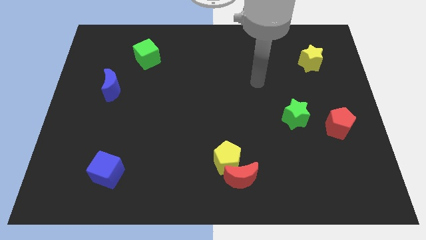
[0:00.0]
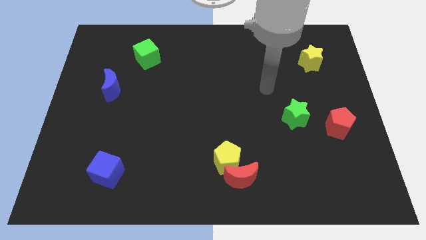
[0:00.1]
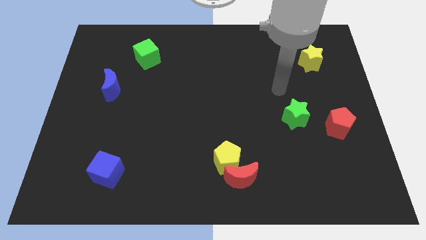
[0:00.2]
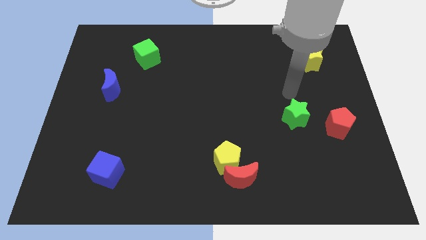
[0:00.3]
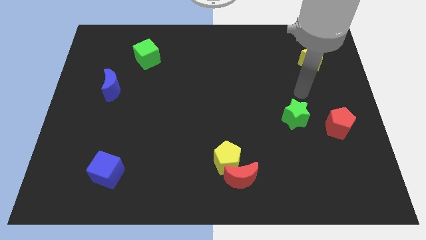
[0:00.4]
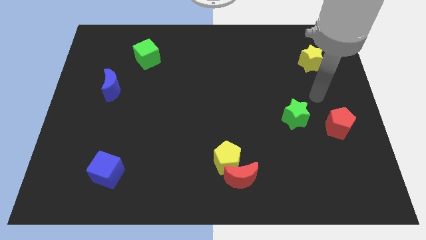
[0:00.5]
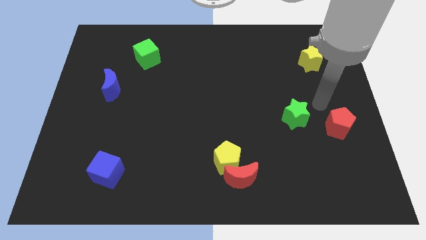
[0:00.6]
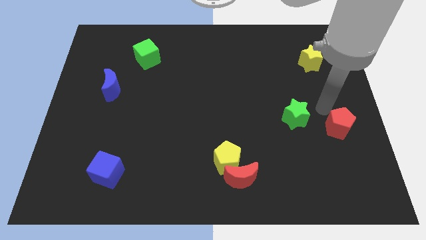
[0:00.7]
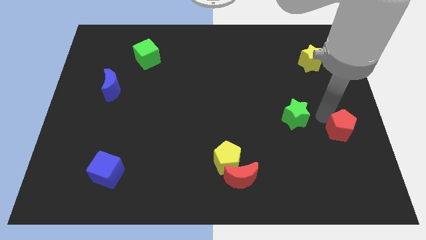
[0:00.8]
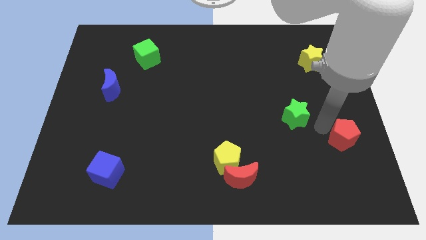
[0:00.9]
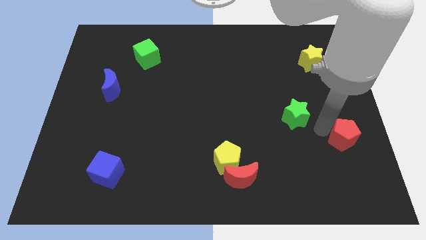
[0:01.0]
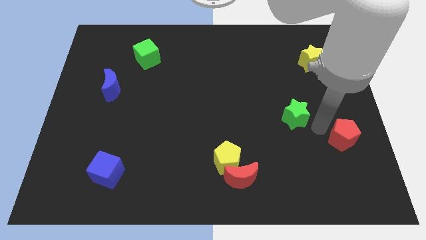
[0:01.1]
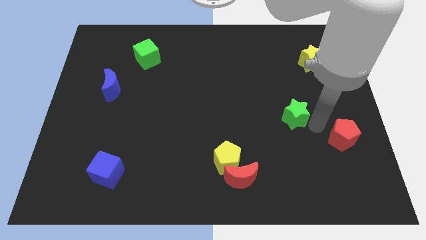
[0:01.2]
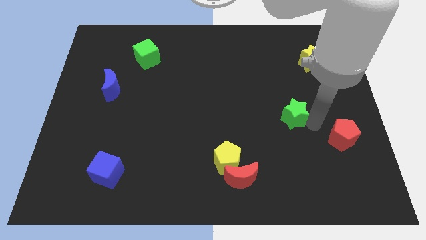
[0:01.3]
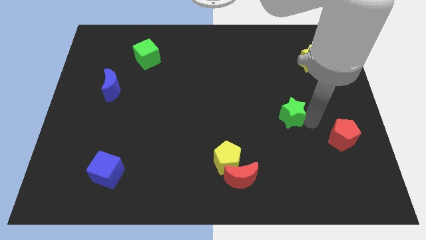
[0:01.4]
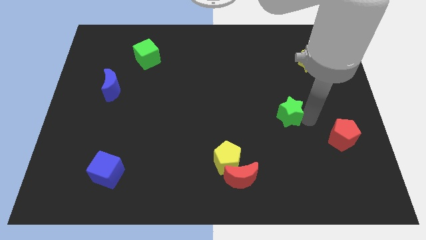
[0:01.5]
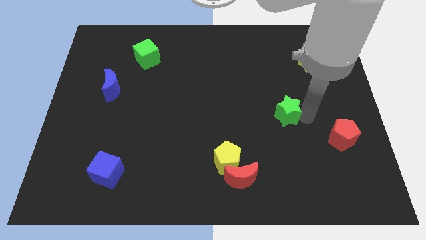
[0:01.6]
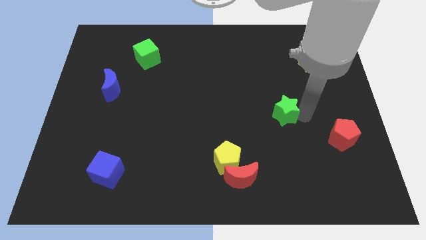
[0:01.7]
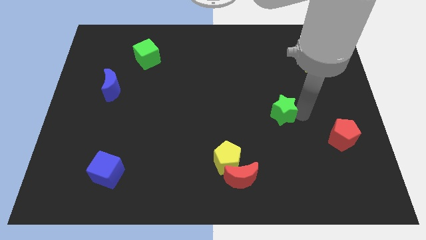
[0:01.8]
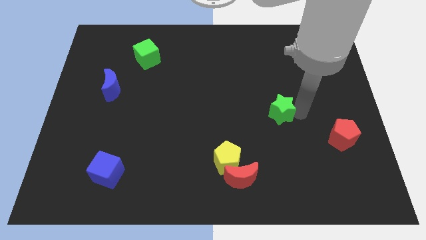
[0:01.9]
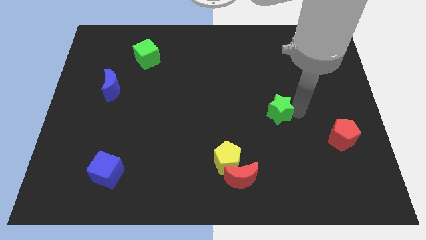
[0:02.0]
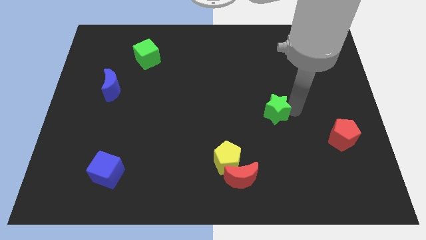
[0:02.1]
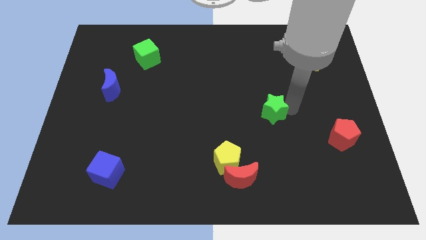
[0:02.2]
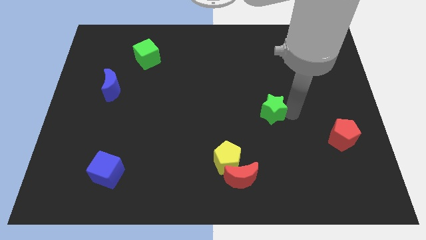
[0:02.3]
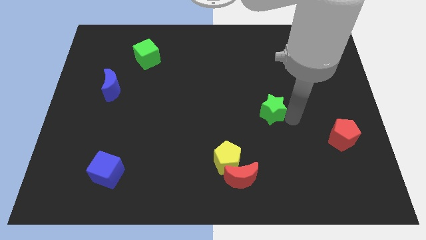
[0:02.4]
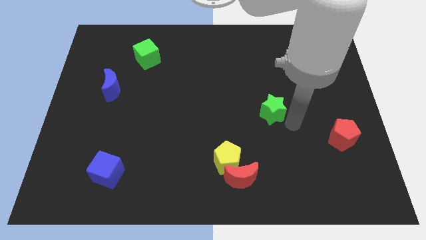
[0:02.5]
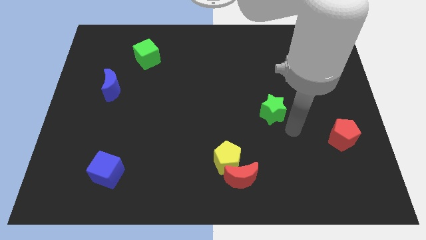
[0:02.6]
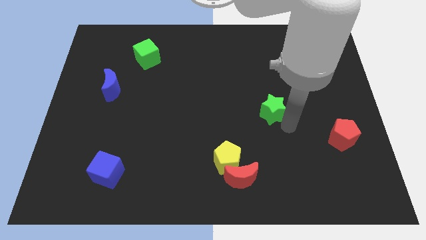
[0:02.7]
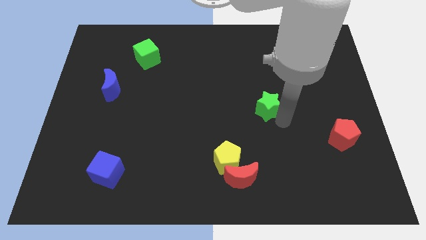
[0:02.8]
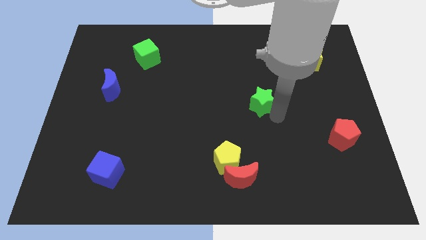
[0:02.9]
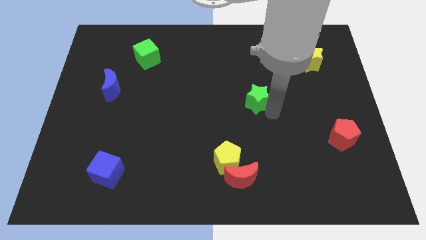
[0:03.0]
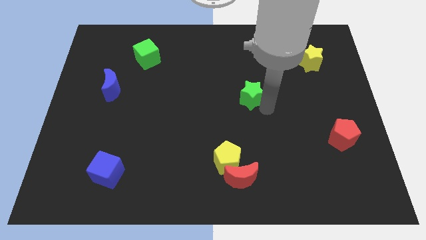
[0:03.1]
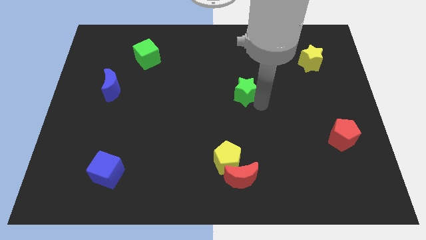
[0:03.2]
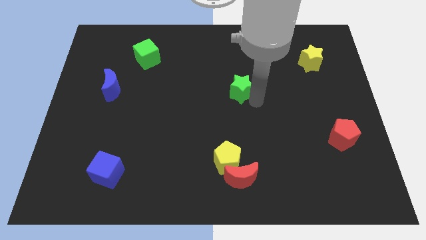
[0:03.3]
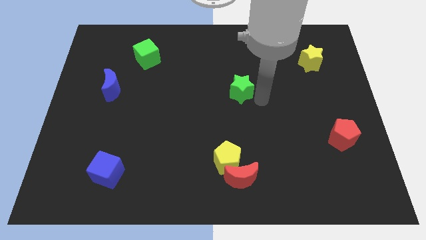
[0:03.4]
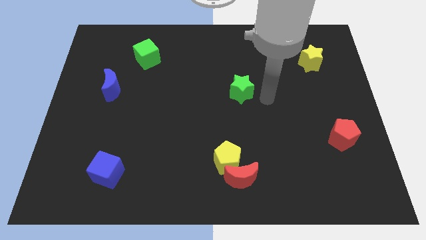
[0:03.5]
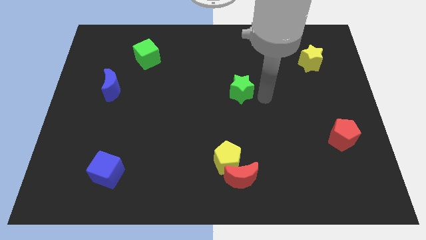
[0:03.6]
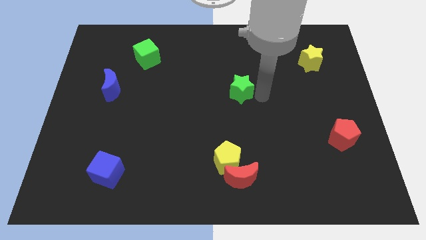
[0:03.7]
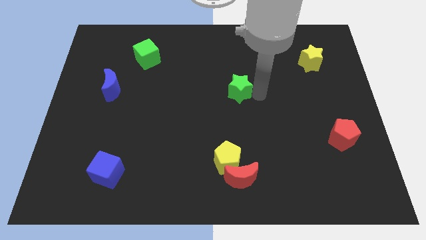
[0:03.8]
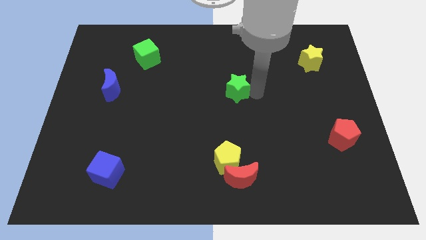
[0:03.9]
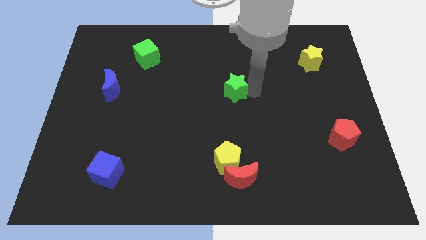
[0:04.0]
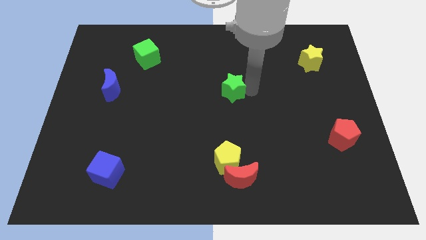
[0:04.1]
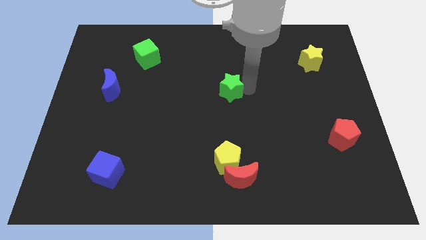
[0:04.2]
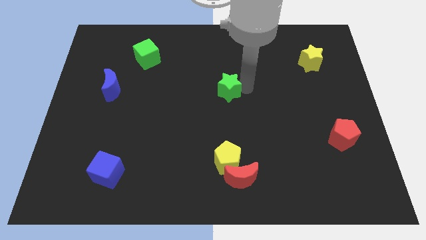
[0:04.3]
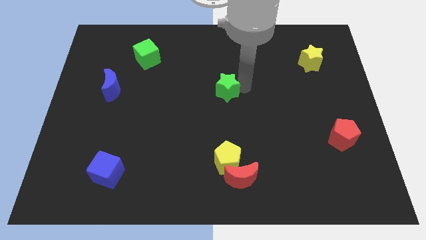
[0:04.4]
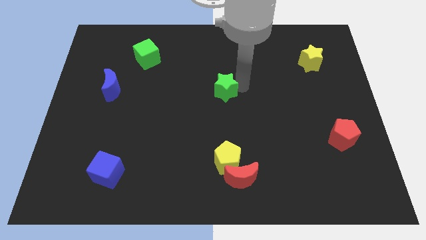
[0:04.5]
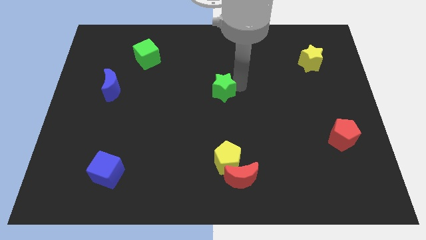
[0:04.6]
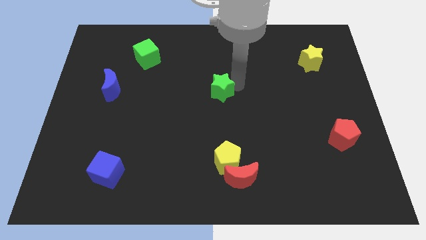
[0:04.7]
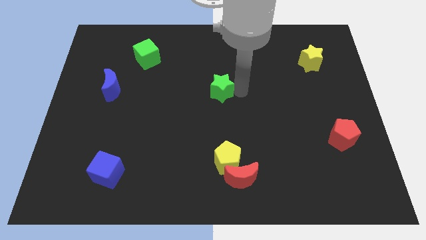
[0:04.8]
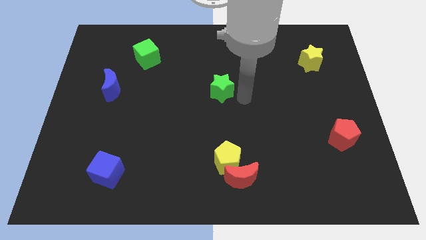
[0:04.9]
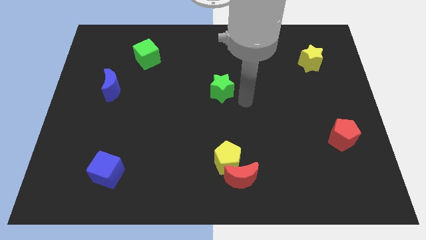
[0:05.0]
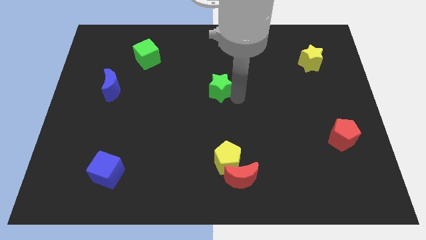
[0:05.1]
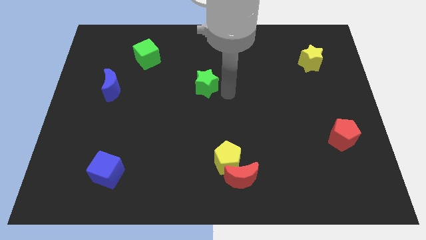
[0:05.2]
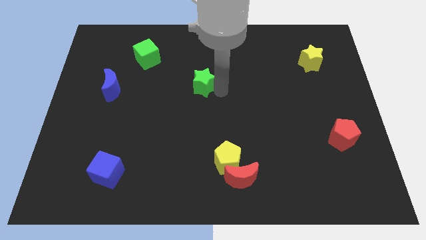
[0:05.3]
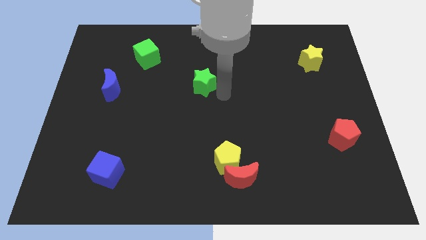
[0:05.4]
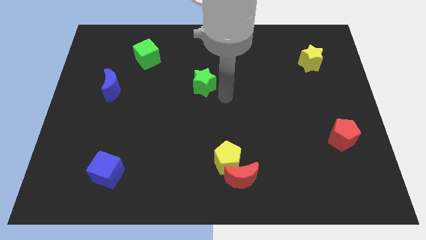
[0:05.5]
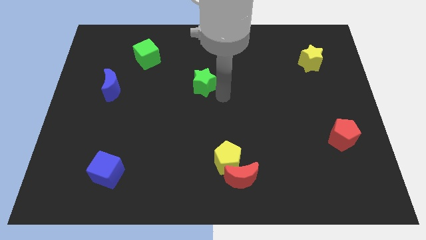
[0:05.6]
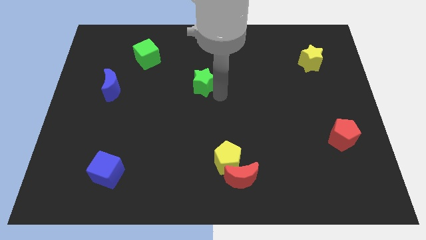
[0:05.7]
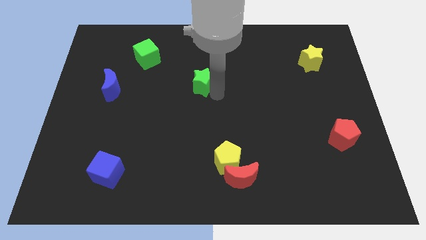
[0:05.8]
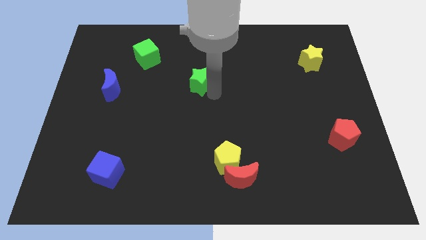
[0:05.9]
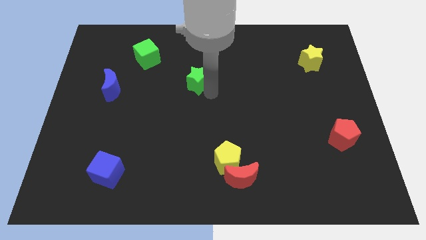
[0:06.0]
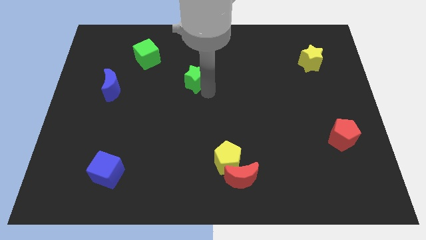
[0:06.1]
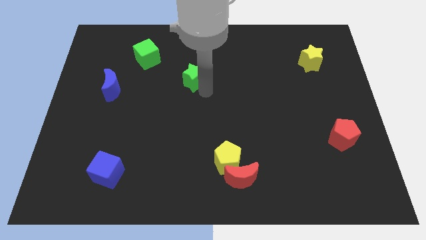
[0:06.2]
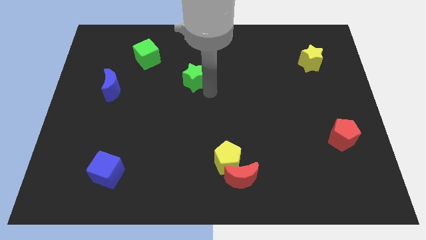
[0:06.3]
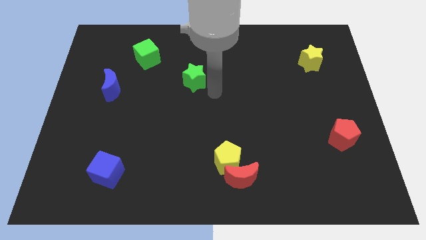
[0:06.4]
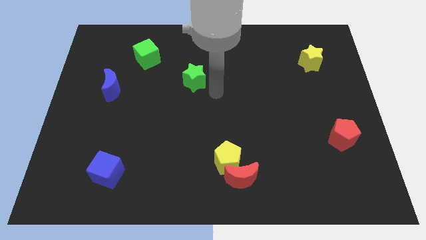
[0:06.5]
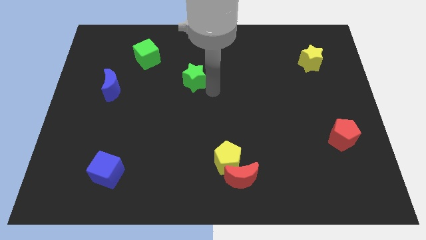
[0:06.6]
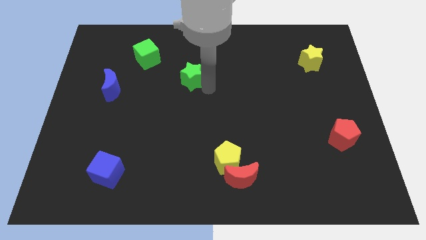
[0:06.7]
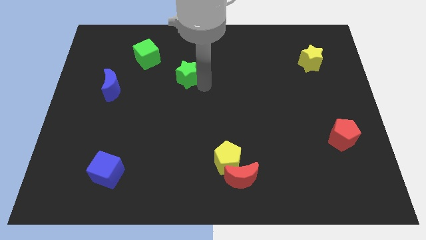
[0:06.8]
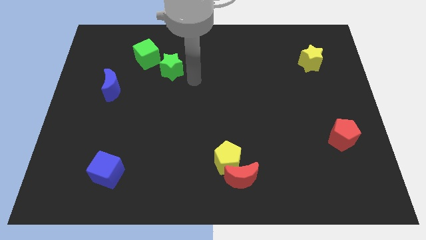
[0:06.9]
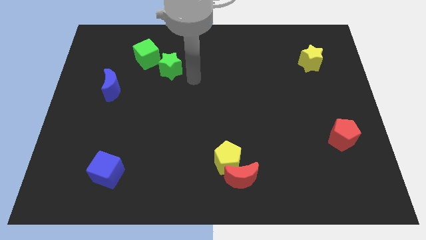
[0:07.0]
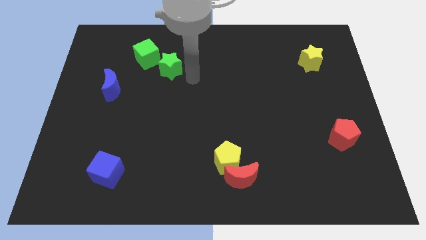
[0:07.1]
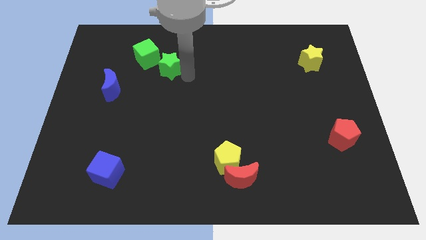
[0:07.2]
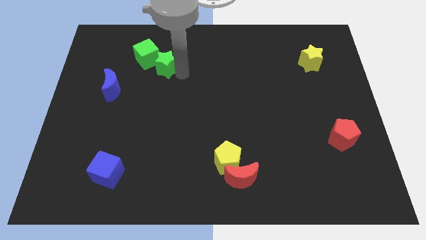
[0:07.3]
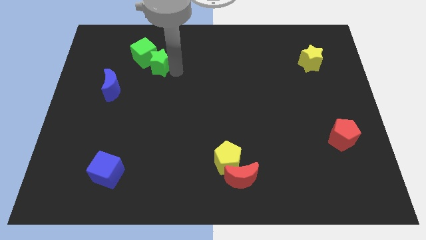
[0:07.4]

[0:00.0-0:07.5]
slide the green star towards the green cube

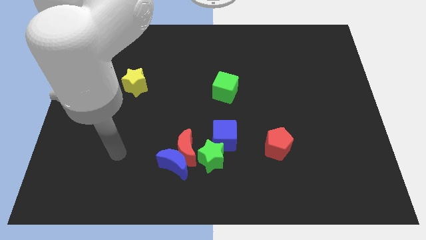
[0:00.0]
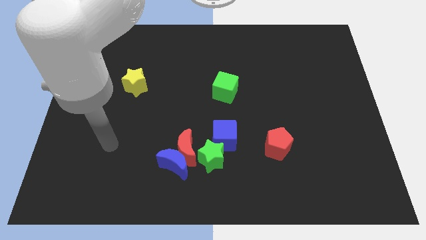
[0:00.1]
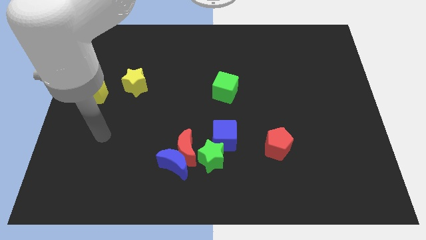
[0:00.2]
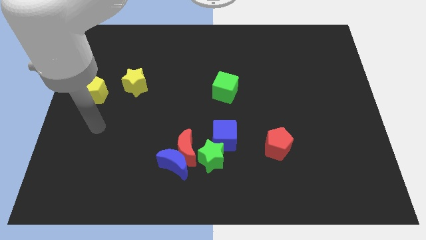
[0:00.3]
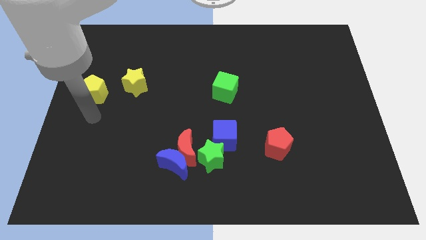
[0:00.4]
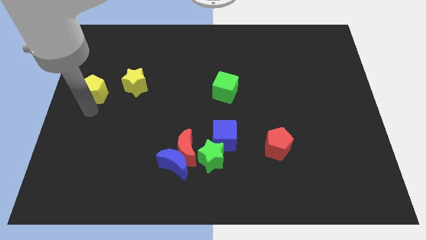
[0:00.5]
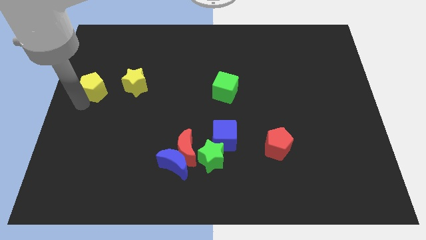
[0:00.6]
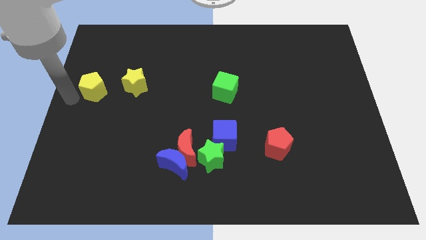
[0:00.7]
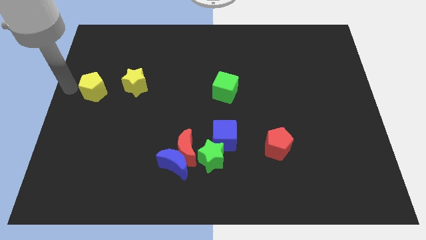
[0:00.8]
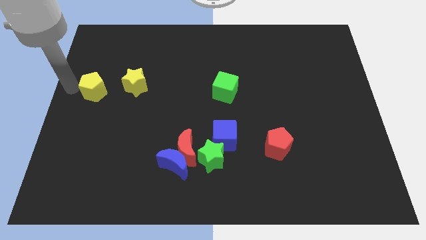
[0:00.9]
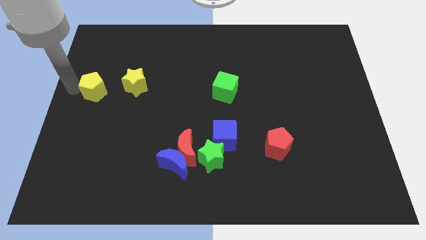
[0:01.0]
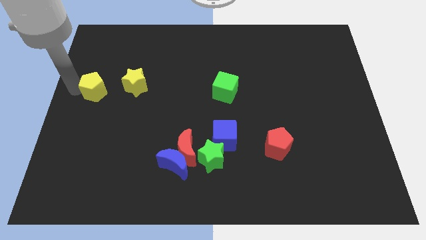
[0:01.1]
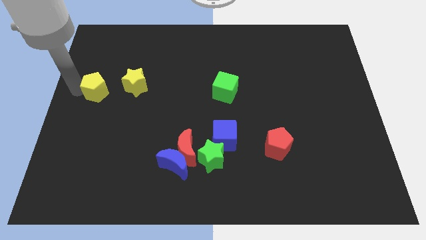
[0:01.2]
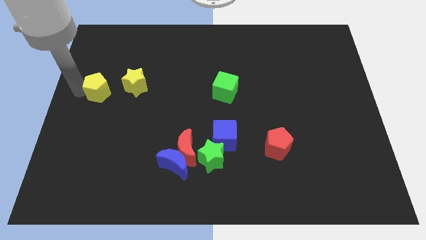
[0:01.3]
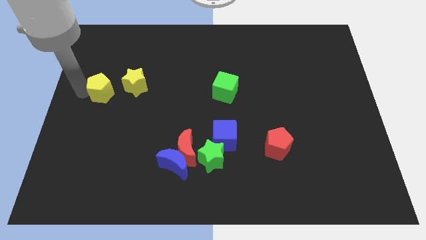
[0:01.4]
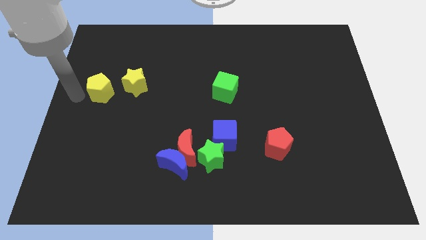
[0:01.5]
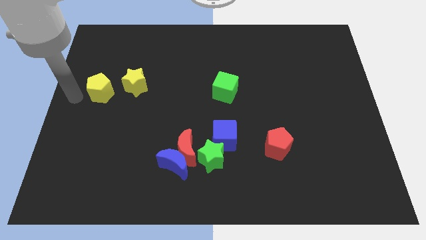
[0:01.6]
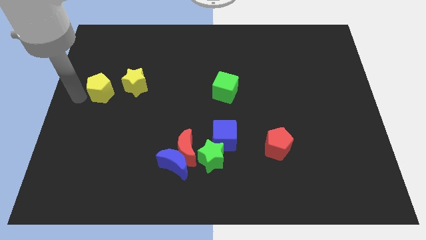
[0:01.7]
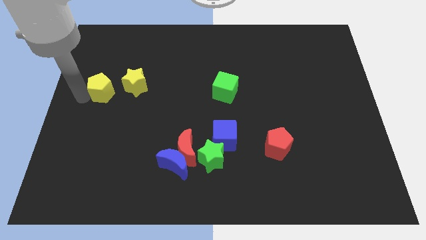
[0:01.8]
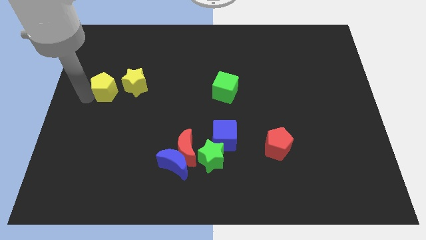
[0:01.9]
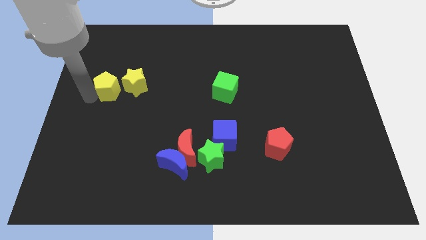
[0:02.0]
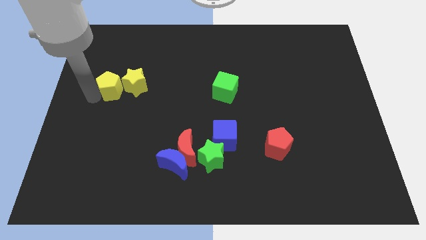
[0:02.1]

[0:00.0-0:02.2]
move the yellow pentagon to the yellow star
